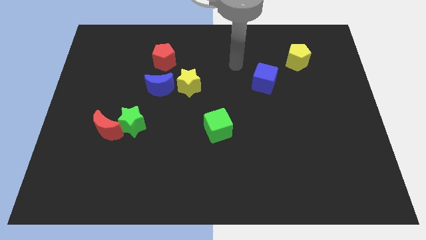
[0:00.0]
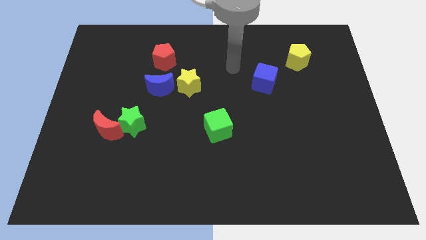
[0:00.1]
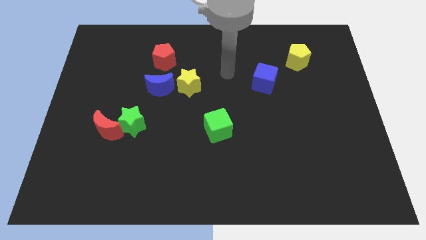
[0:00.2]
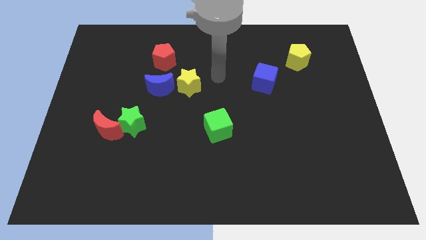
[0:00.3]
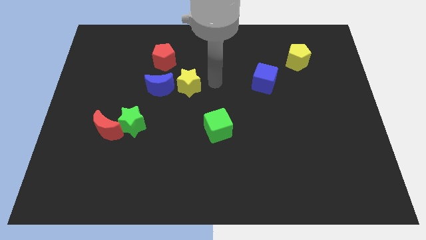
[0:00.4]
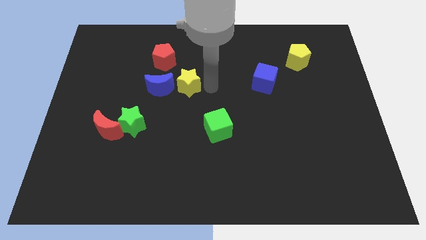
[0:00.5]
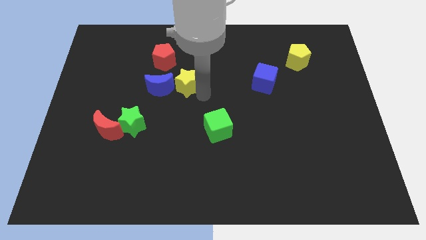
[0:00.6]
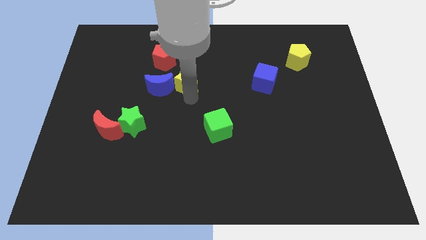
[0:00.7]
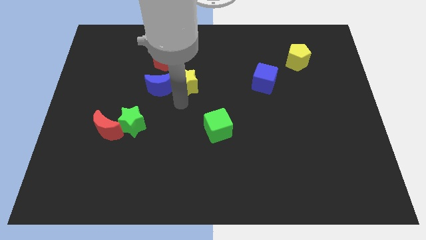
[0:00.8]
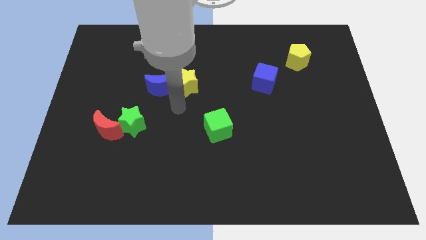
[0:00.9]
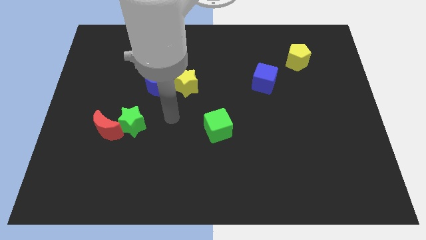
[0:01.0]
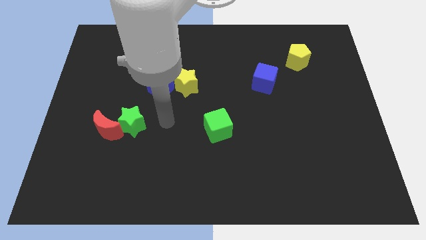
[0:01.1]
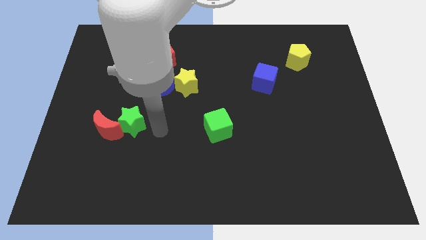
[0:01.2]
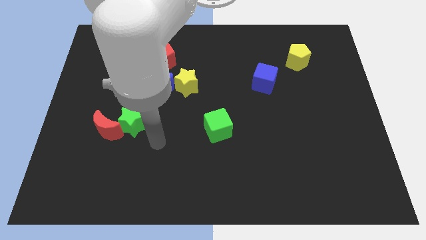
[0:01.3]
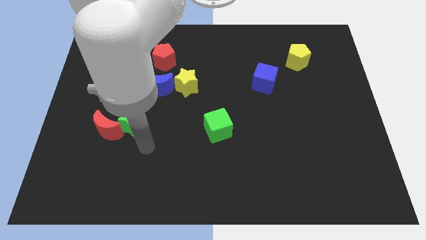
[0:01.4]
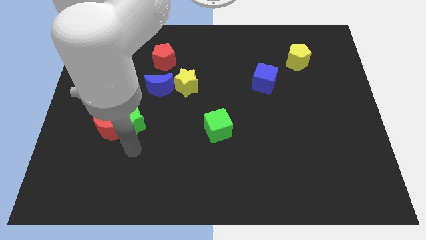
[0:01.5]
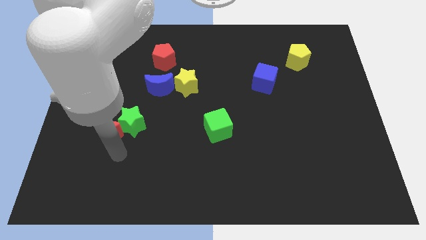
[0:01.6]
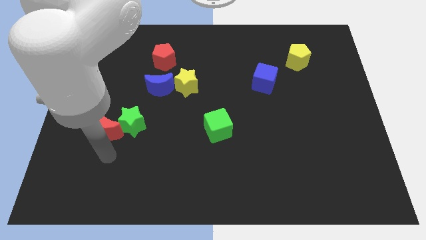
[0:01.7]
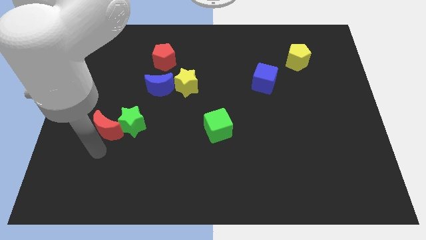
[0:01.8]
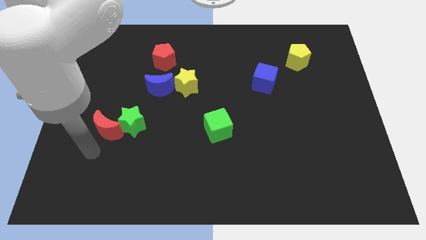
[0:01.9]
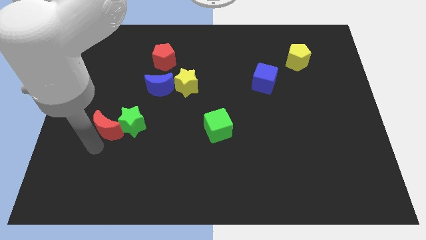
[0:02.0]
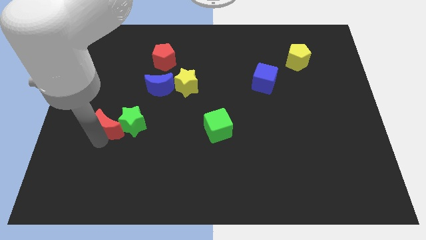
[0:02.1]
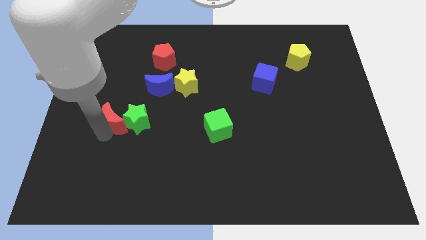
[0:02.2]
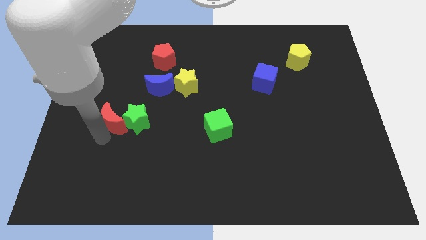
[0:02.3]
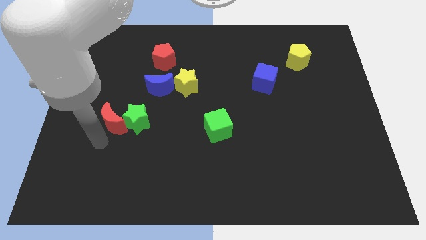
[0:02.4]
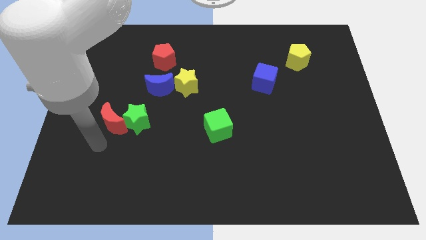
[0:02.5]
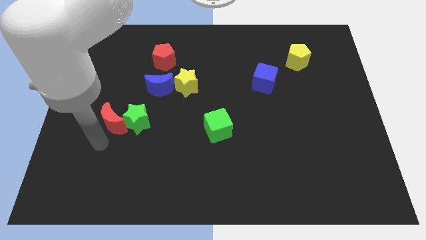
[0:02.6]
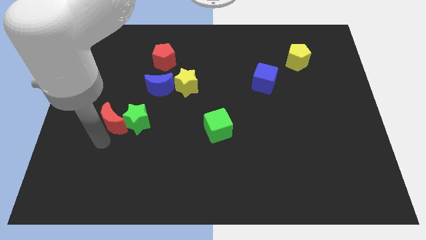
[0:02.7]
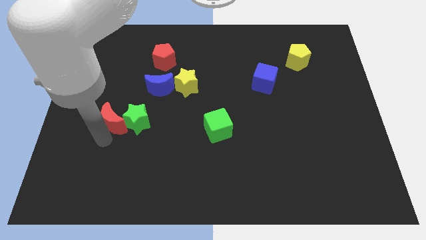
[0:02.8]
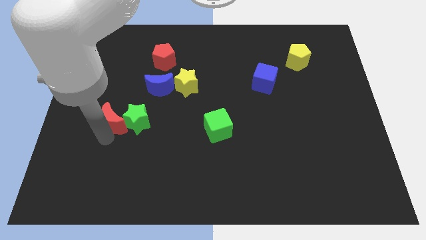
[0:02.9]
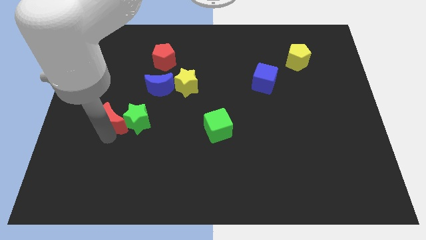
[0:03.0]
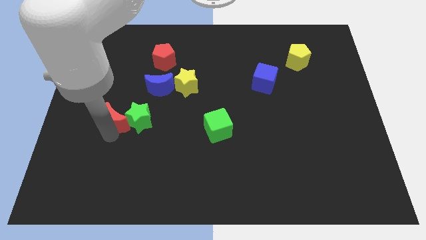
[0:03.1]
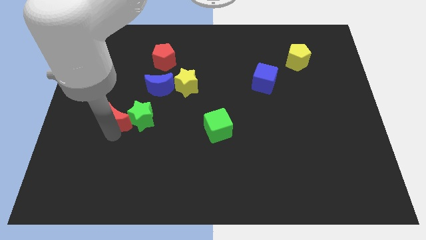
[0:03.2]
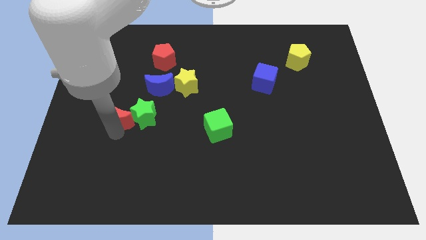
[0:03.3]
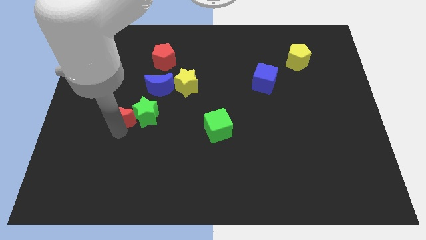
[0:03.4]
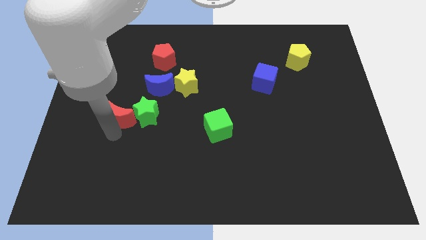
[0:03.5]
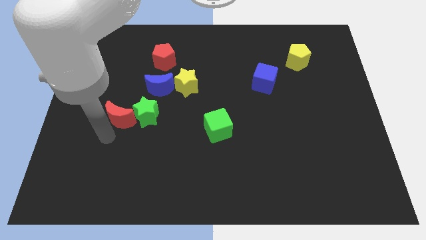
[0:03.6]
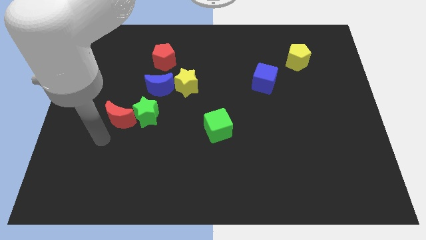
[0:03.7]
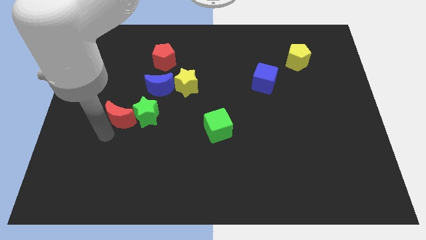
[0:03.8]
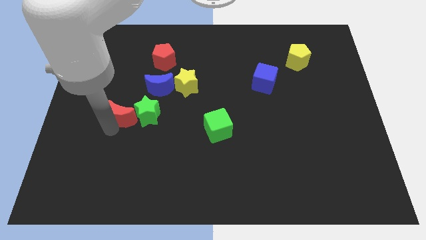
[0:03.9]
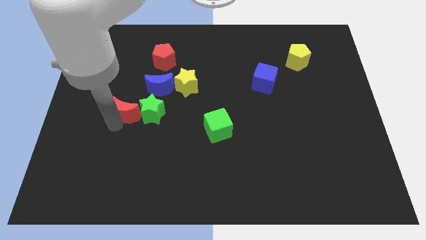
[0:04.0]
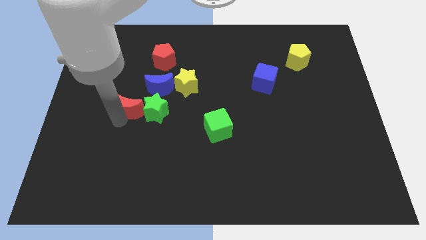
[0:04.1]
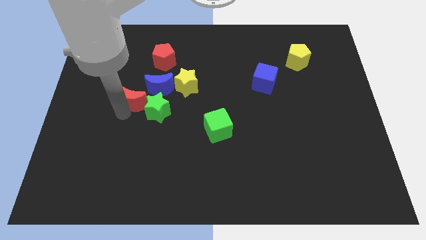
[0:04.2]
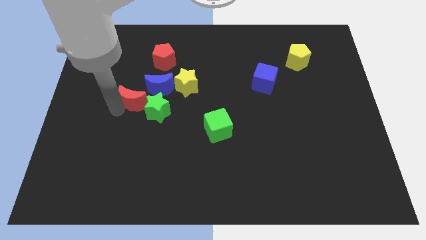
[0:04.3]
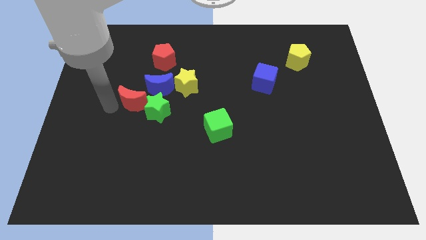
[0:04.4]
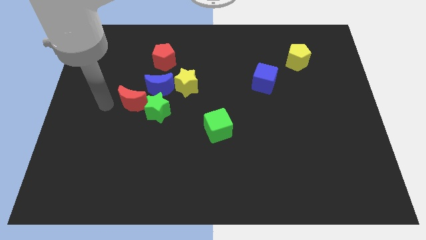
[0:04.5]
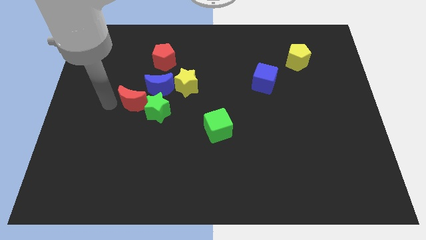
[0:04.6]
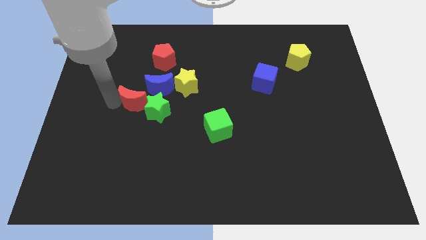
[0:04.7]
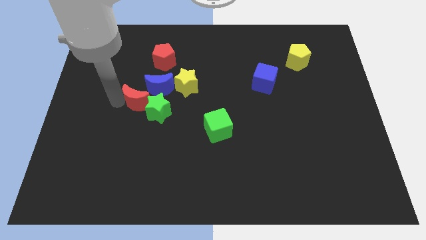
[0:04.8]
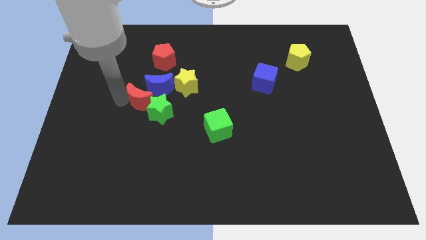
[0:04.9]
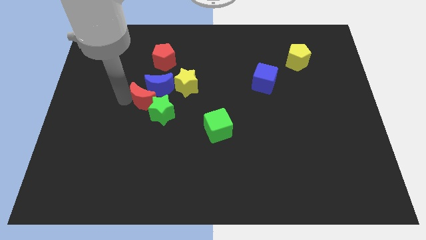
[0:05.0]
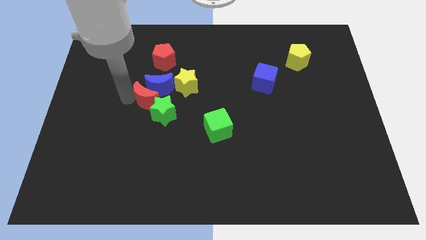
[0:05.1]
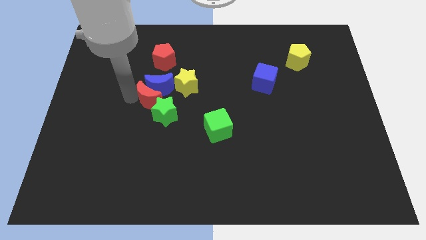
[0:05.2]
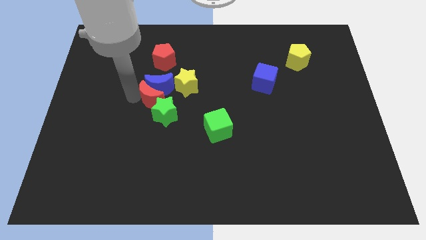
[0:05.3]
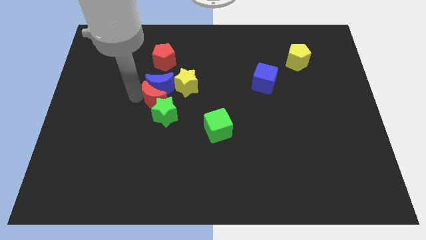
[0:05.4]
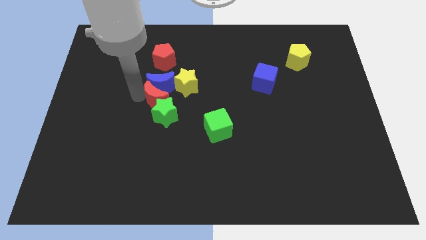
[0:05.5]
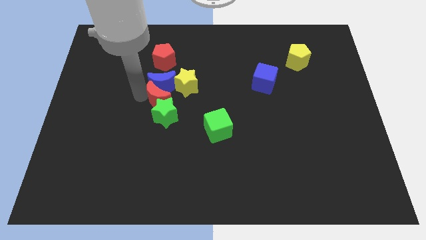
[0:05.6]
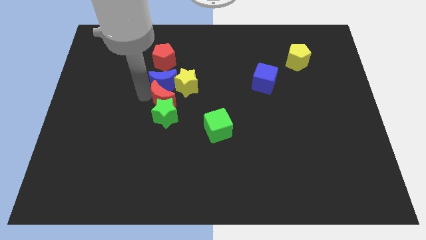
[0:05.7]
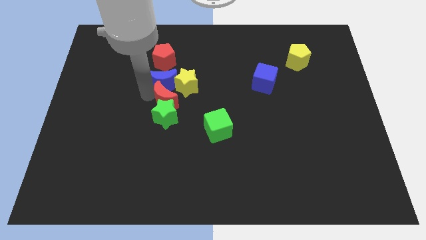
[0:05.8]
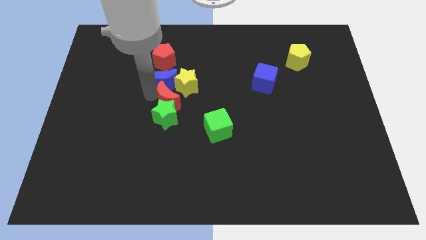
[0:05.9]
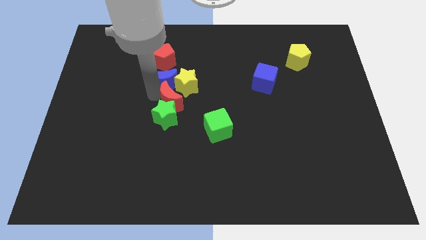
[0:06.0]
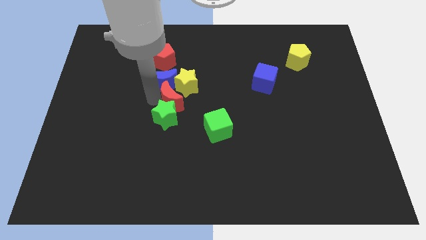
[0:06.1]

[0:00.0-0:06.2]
slide the red moon next to the yellow star

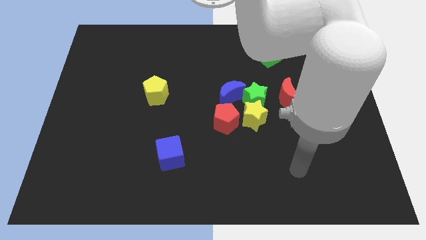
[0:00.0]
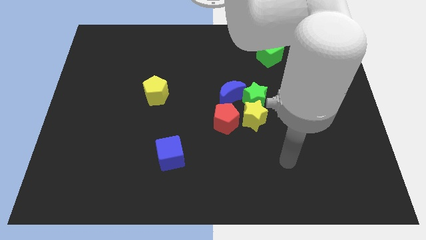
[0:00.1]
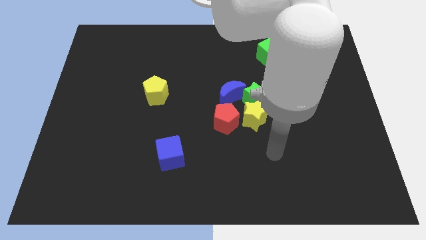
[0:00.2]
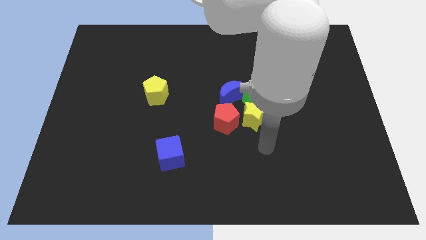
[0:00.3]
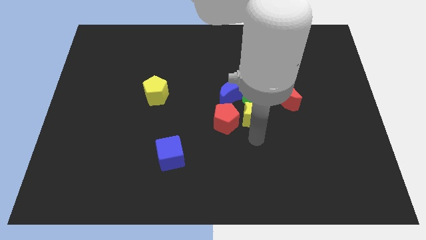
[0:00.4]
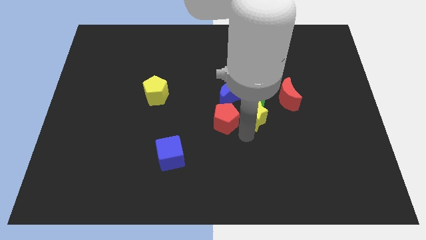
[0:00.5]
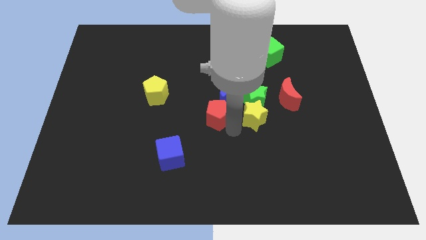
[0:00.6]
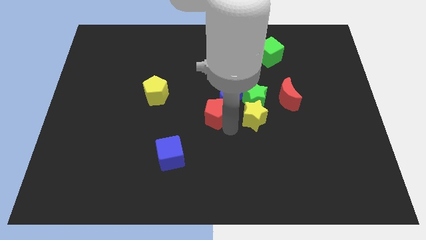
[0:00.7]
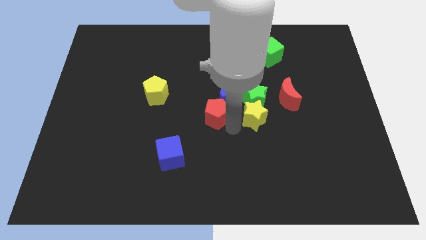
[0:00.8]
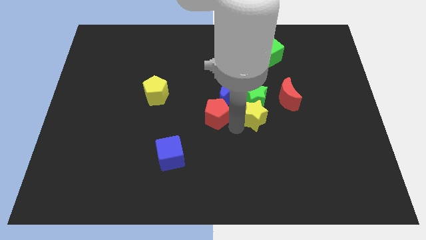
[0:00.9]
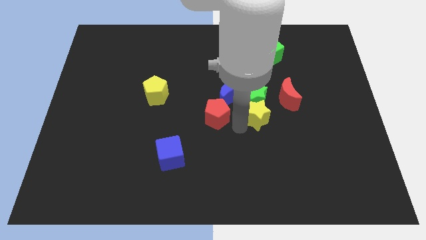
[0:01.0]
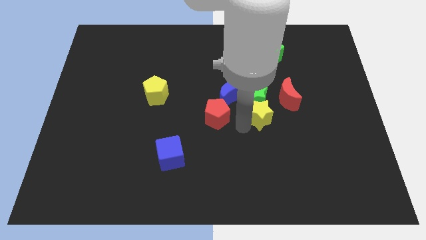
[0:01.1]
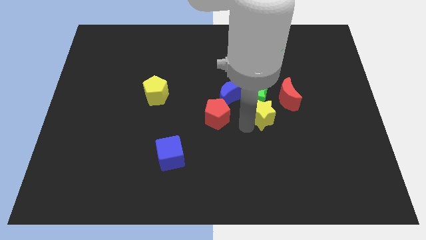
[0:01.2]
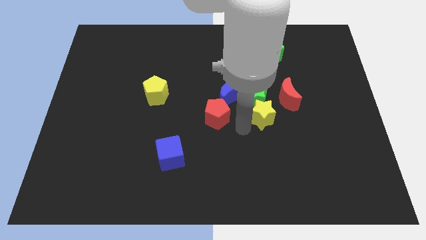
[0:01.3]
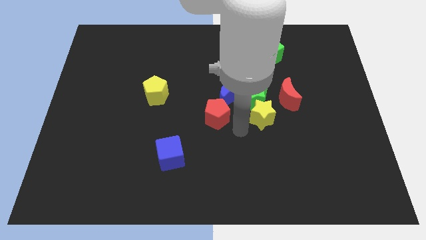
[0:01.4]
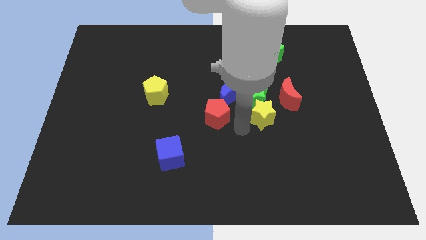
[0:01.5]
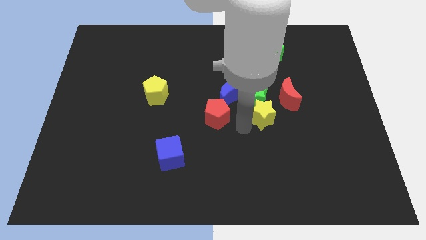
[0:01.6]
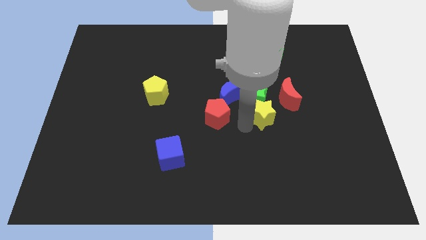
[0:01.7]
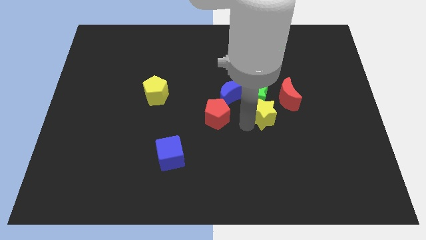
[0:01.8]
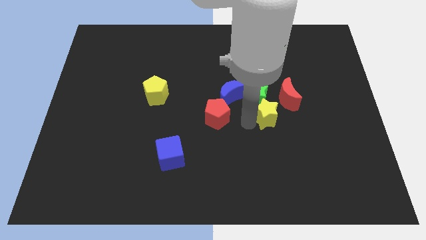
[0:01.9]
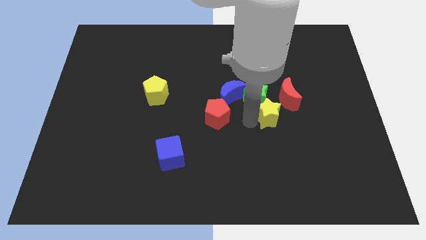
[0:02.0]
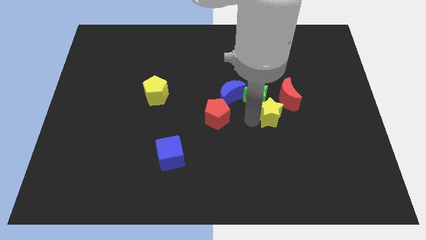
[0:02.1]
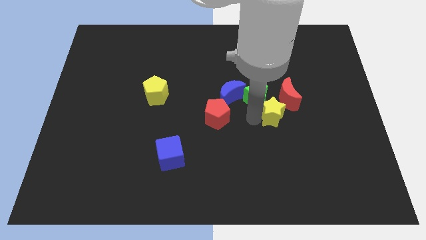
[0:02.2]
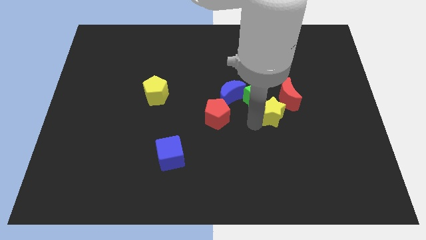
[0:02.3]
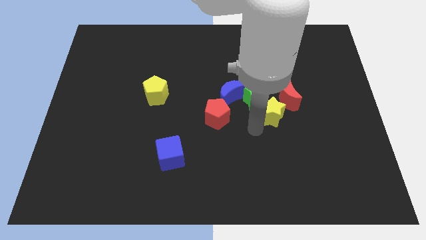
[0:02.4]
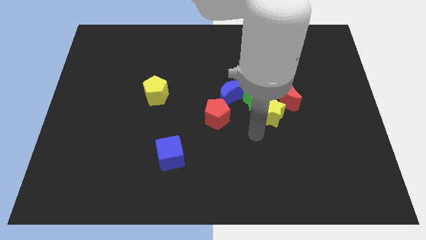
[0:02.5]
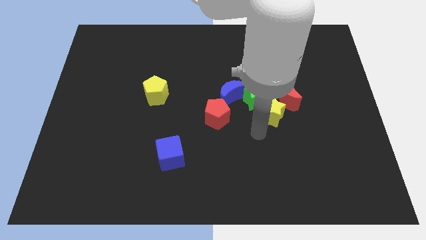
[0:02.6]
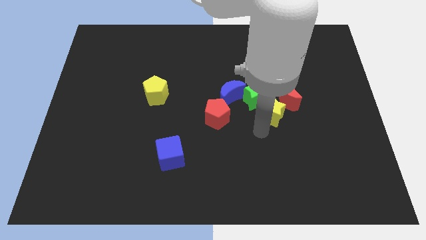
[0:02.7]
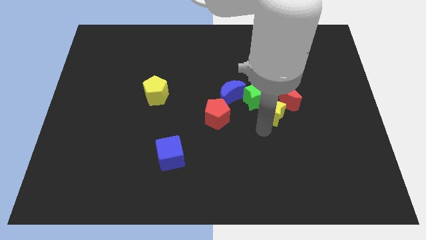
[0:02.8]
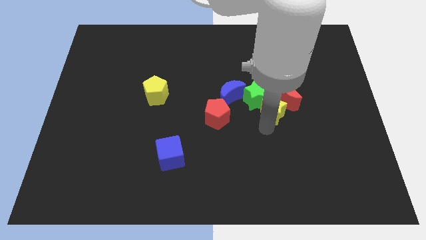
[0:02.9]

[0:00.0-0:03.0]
put the yellow star next to the red moon
